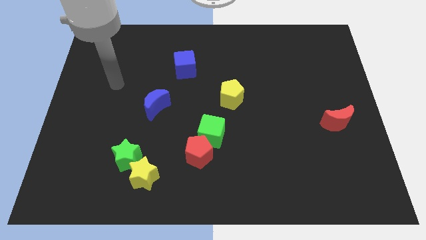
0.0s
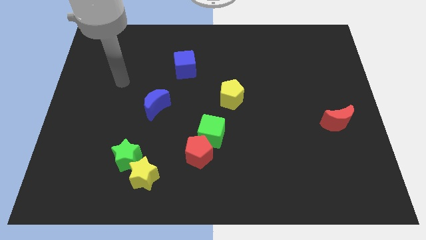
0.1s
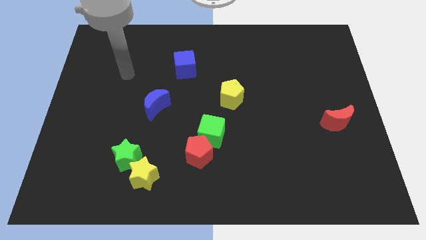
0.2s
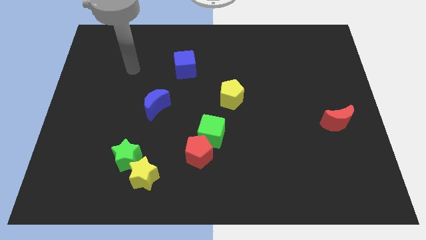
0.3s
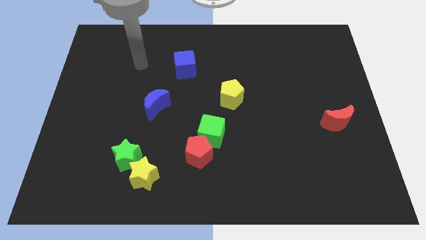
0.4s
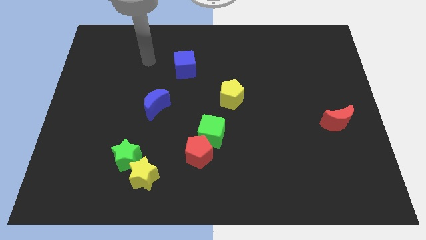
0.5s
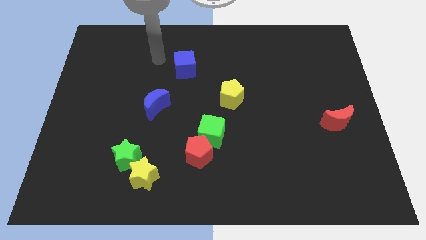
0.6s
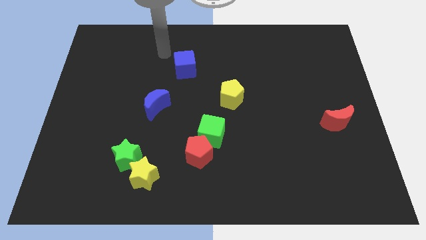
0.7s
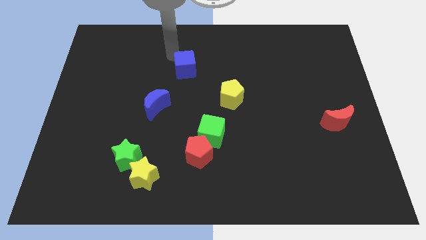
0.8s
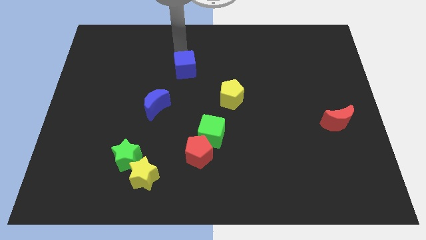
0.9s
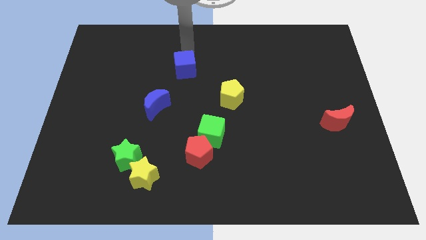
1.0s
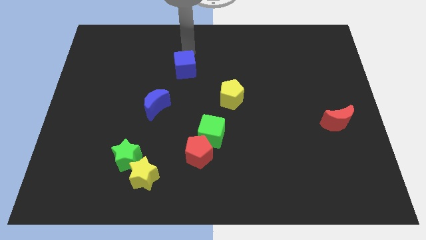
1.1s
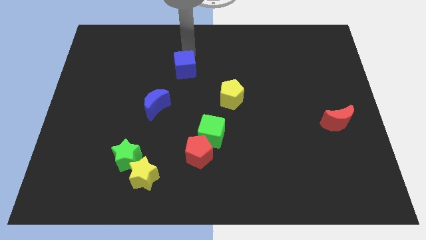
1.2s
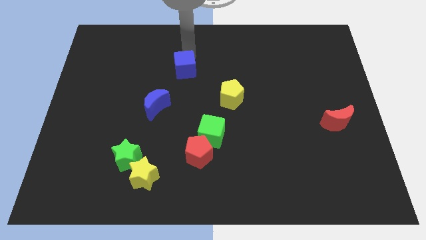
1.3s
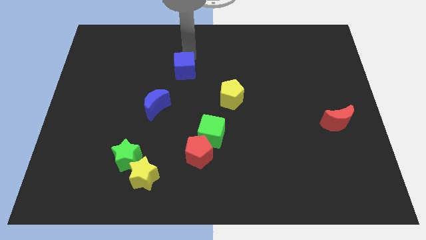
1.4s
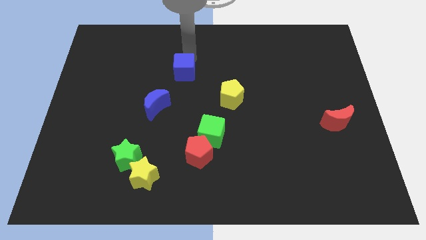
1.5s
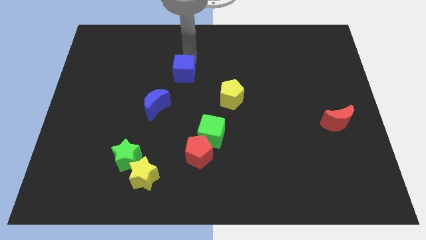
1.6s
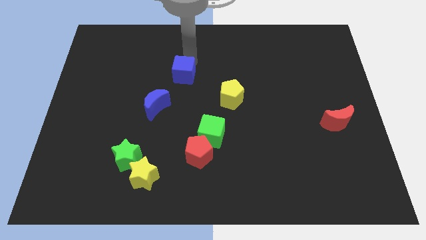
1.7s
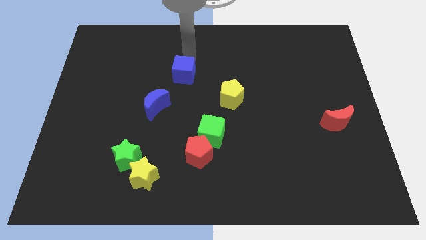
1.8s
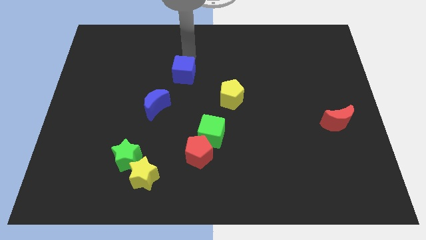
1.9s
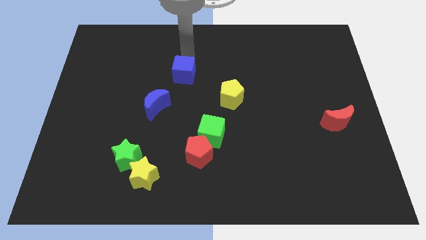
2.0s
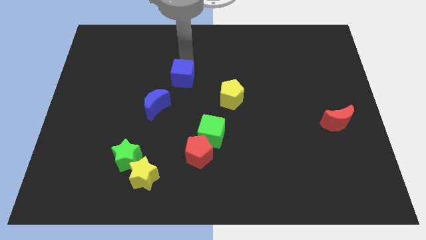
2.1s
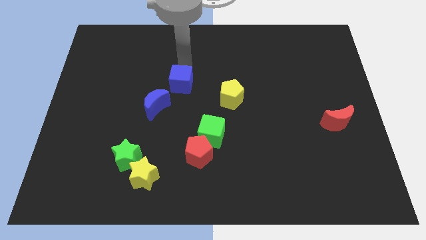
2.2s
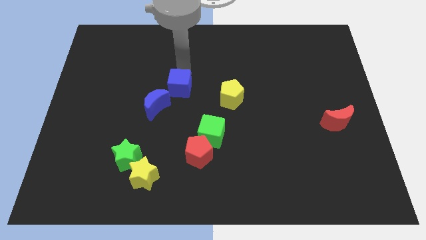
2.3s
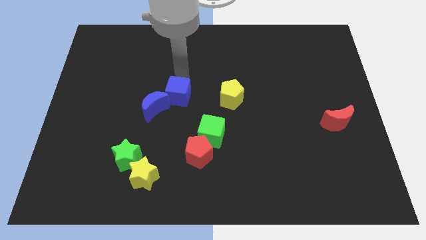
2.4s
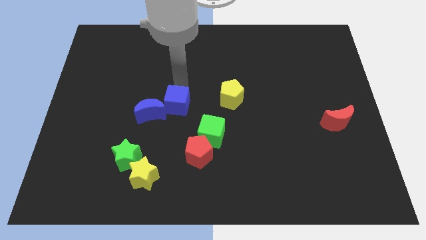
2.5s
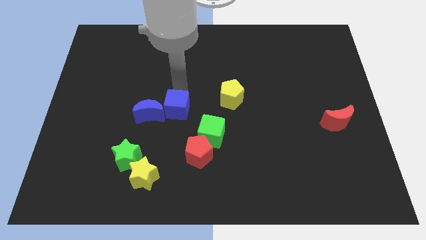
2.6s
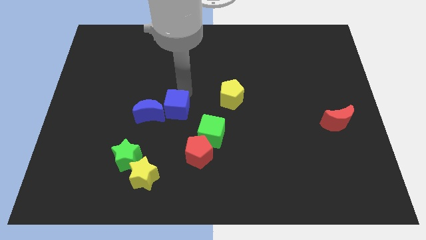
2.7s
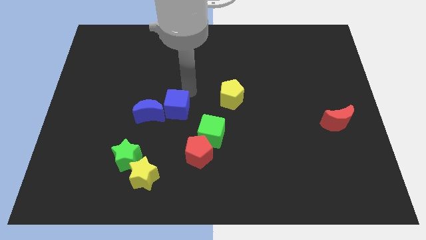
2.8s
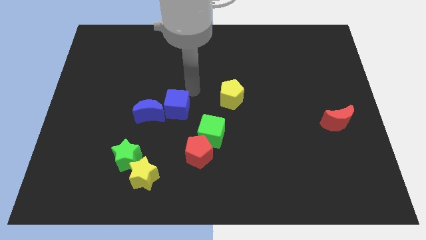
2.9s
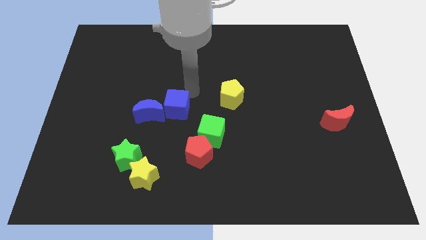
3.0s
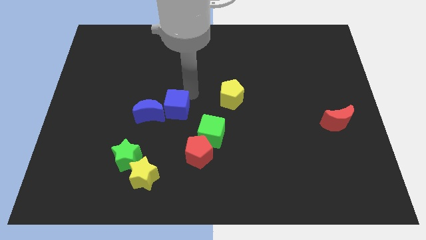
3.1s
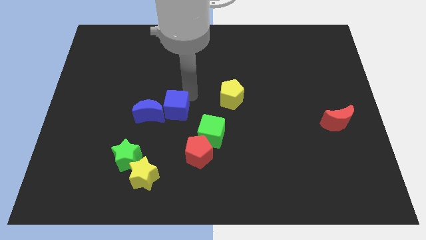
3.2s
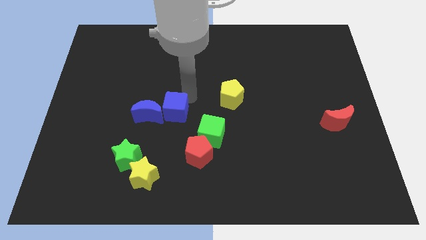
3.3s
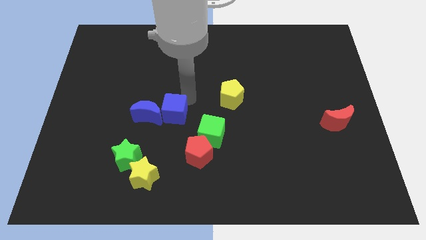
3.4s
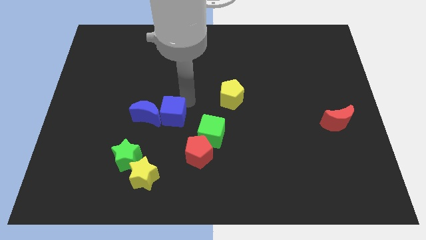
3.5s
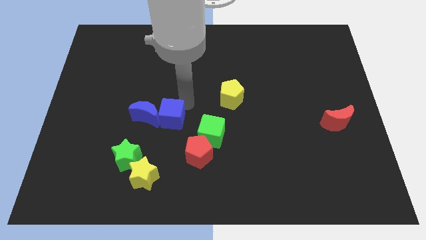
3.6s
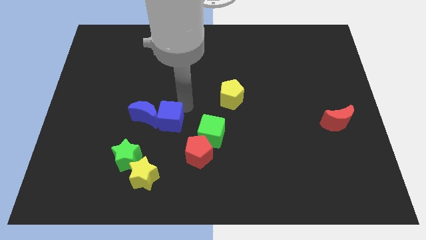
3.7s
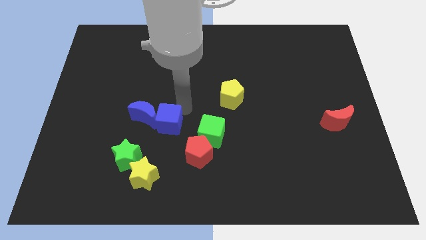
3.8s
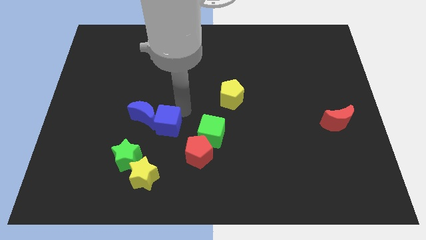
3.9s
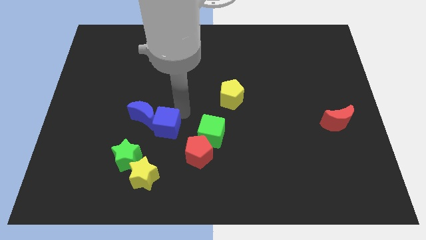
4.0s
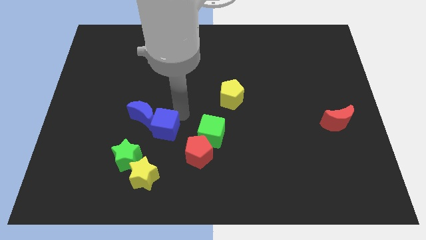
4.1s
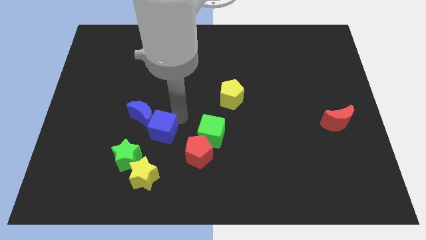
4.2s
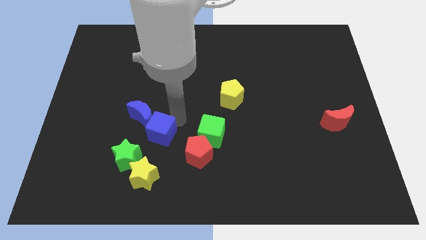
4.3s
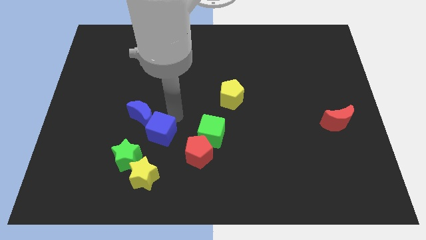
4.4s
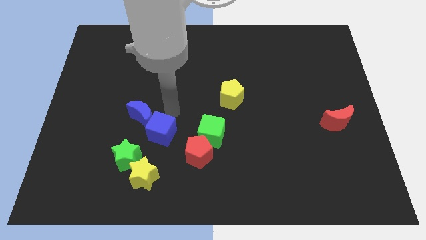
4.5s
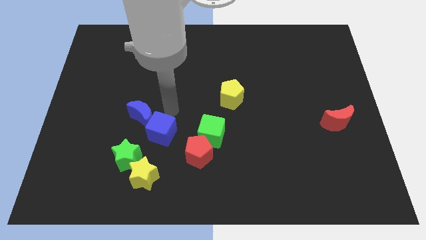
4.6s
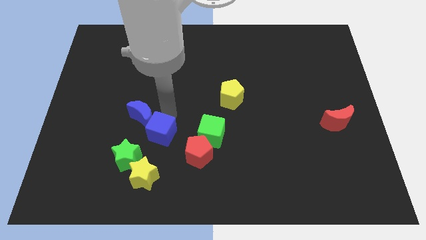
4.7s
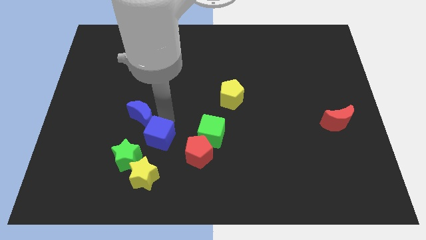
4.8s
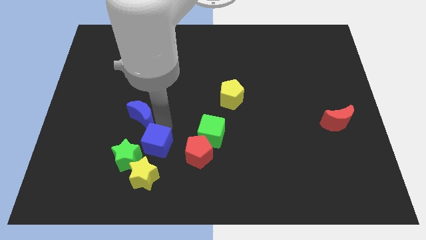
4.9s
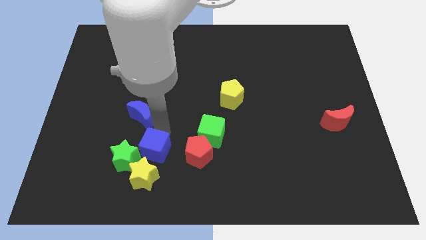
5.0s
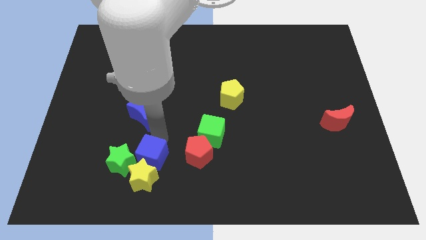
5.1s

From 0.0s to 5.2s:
put the blue cube to the yellow star

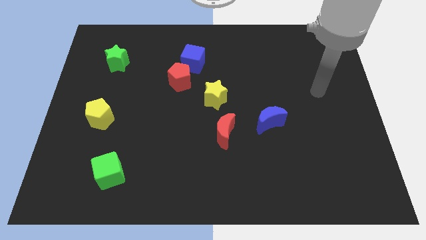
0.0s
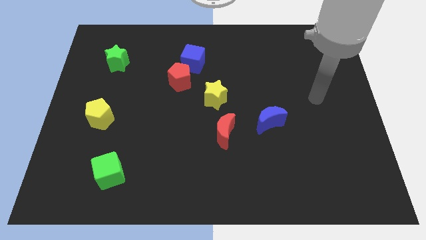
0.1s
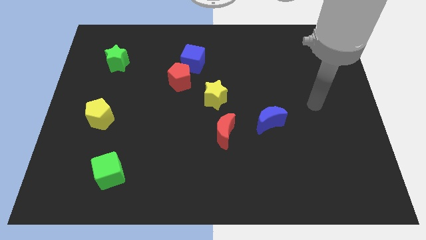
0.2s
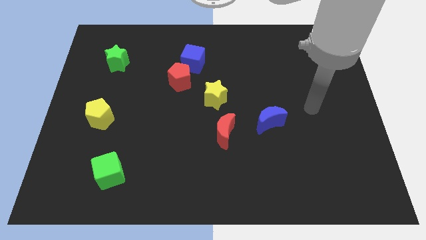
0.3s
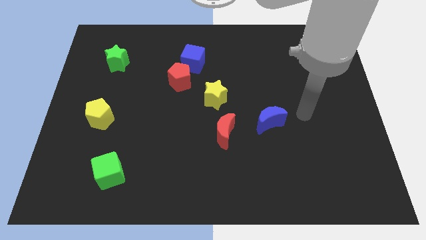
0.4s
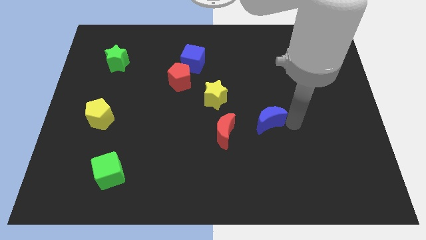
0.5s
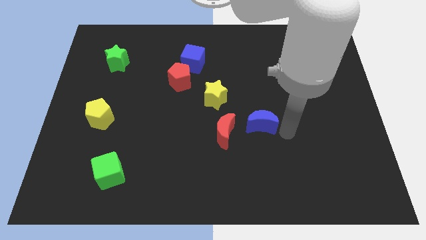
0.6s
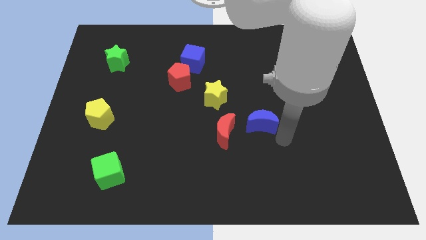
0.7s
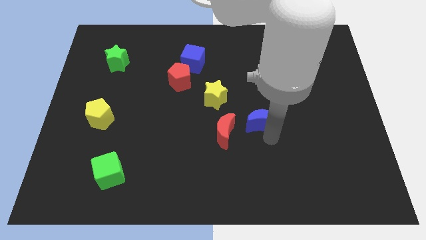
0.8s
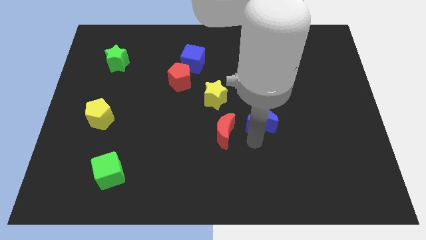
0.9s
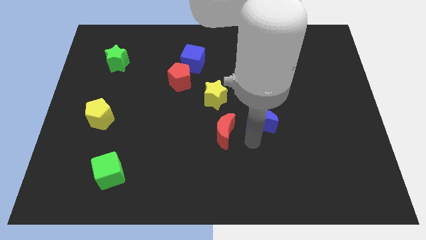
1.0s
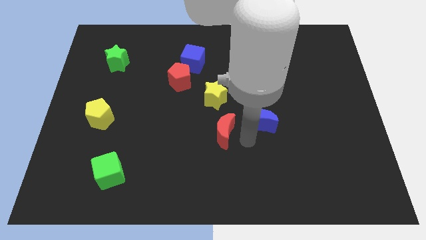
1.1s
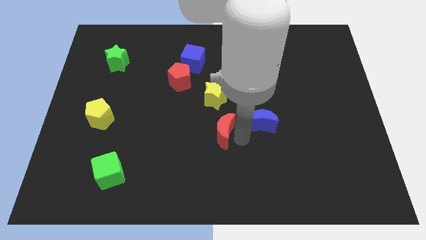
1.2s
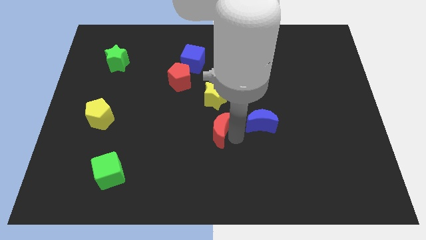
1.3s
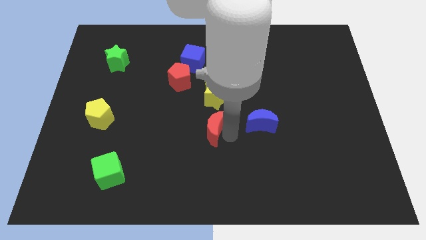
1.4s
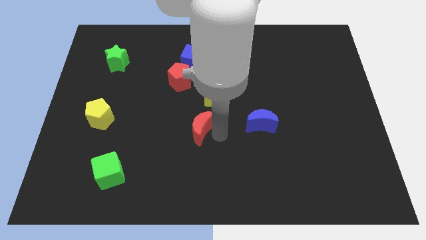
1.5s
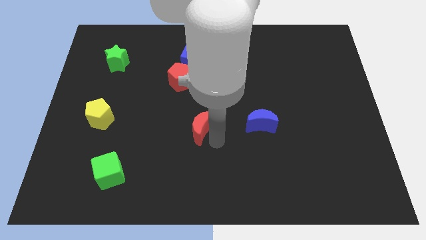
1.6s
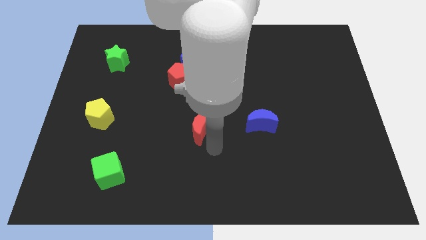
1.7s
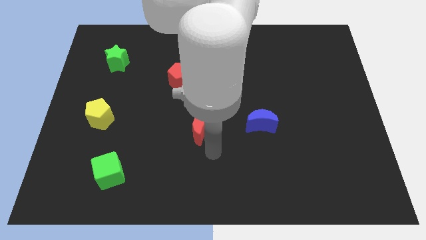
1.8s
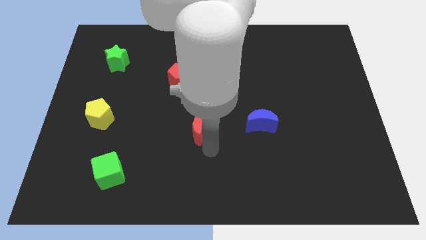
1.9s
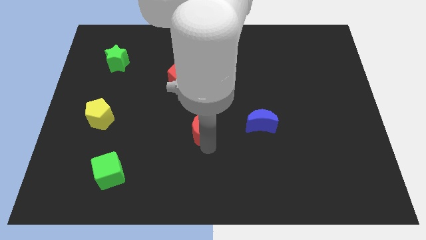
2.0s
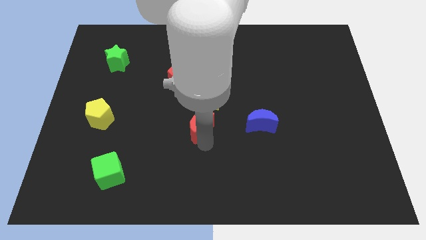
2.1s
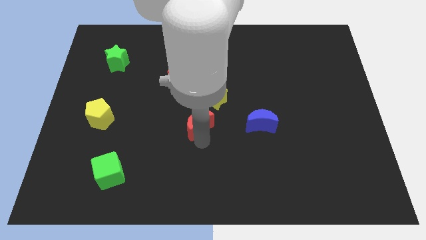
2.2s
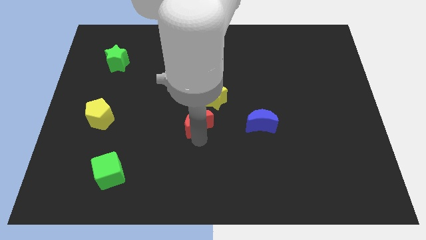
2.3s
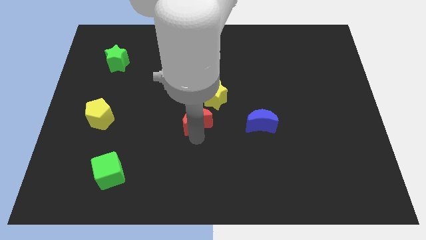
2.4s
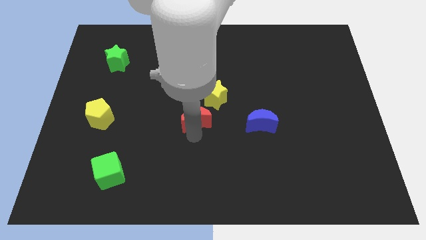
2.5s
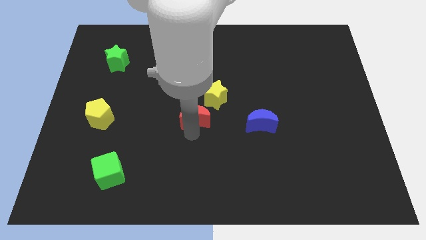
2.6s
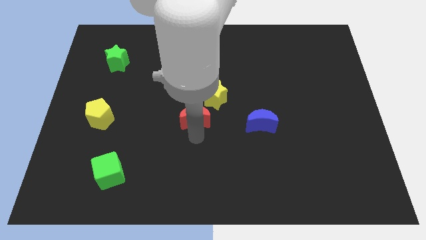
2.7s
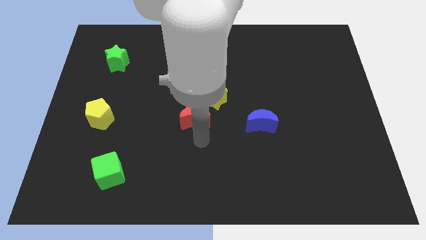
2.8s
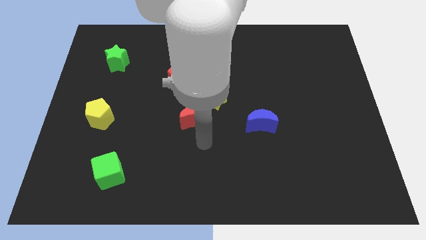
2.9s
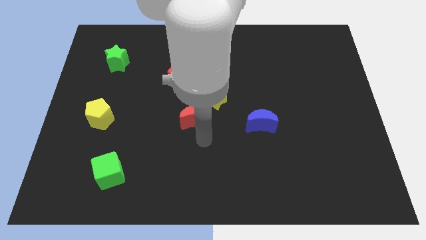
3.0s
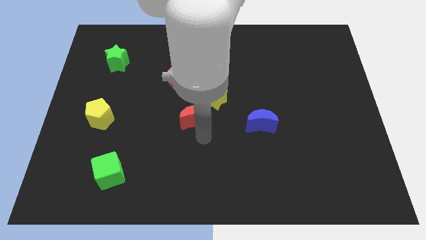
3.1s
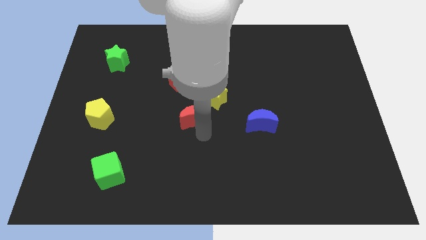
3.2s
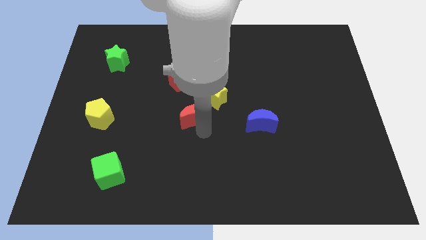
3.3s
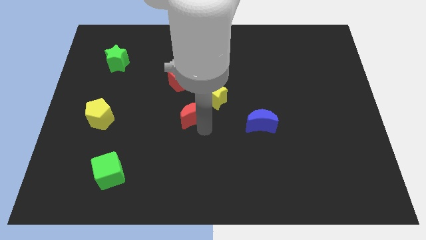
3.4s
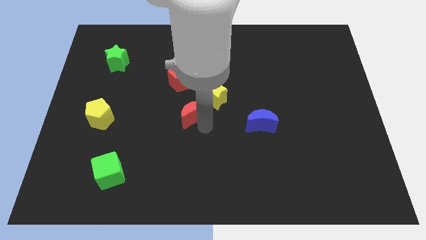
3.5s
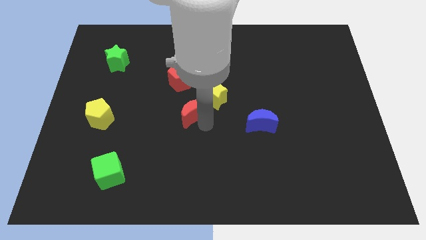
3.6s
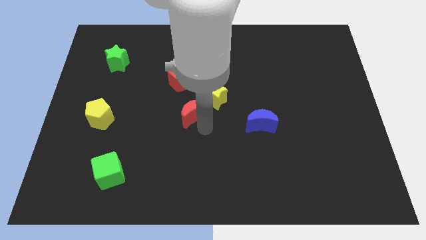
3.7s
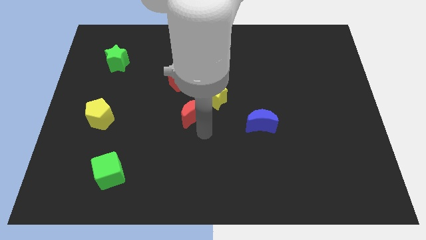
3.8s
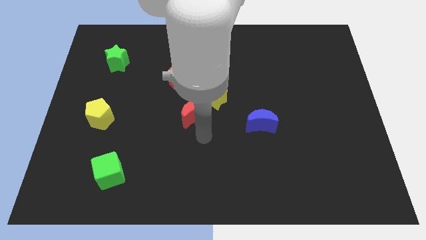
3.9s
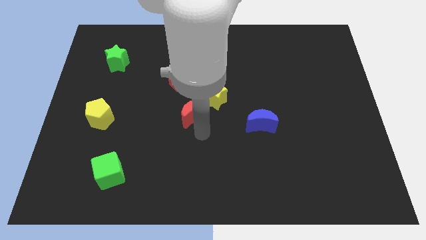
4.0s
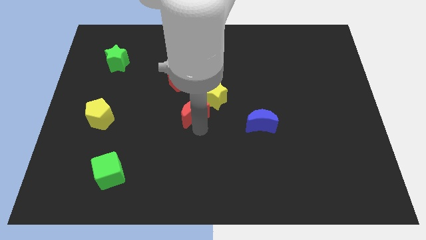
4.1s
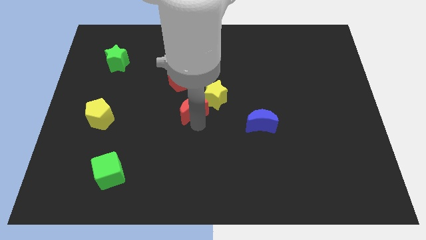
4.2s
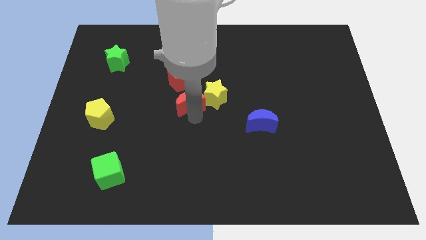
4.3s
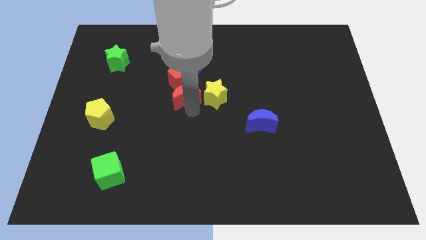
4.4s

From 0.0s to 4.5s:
put the red moon next to the red pentagon
